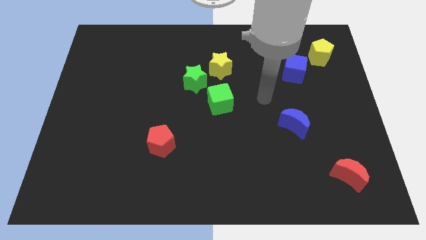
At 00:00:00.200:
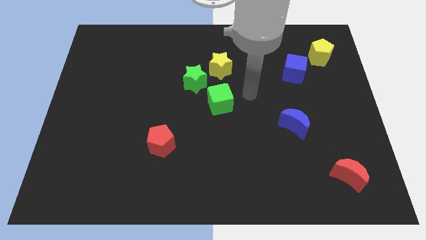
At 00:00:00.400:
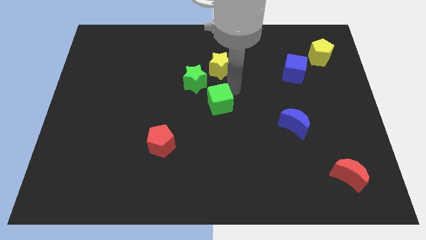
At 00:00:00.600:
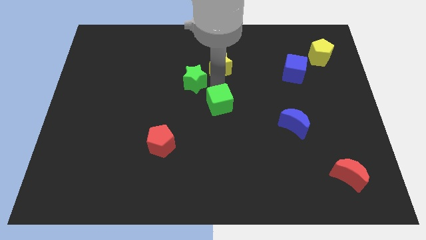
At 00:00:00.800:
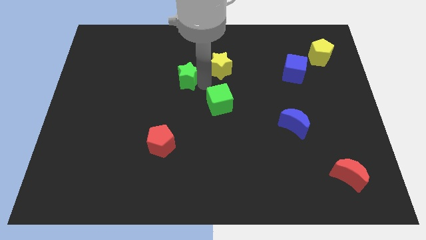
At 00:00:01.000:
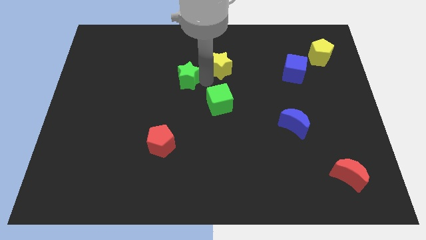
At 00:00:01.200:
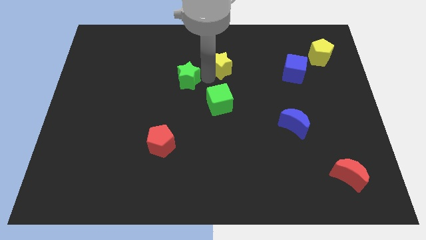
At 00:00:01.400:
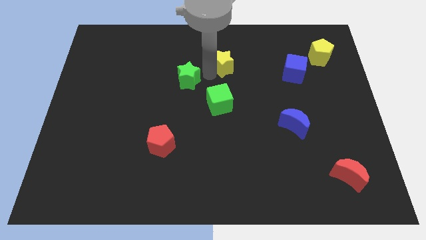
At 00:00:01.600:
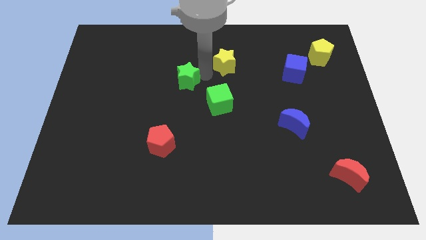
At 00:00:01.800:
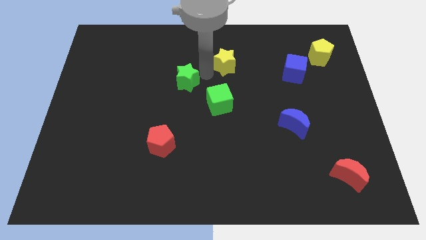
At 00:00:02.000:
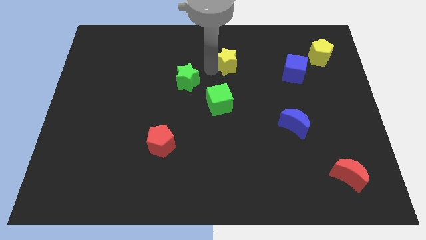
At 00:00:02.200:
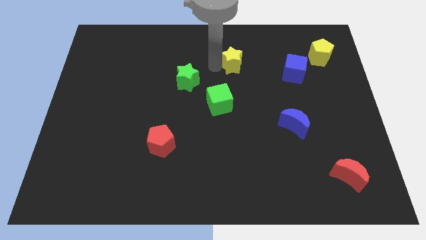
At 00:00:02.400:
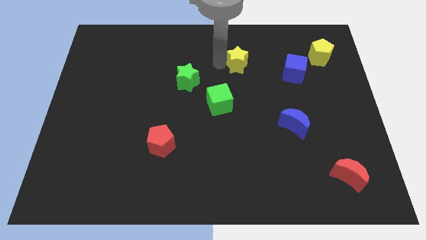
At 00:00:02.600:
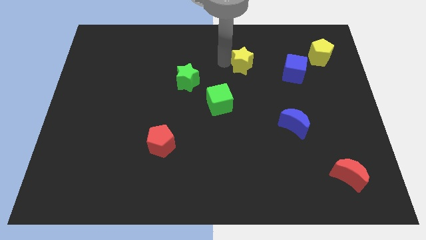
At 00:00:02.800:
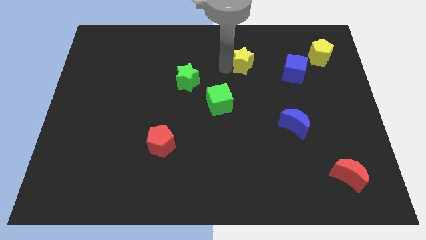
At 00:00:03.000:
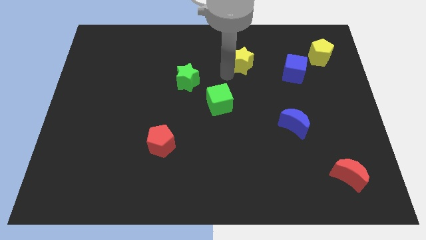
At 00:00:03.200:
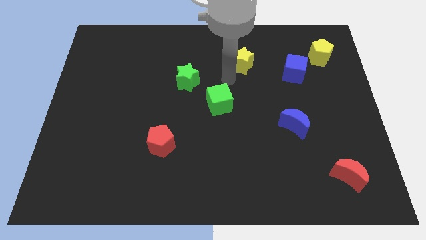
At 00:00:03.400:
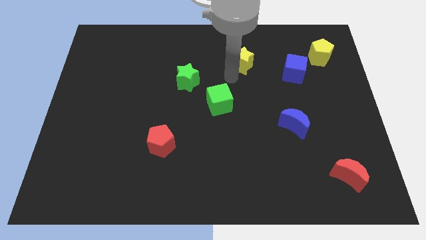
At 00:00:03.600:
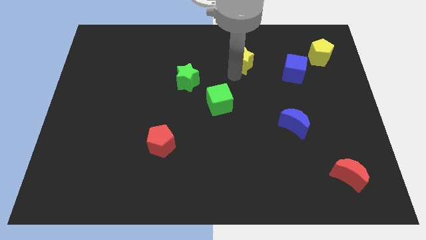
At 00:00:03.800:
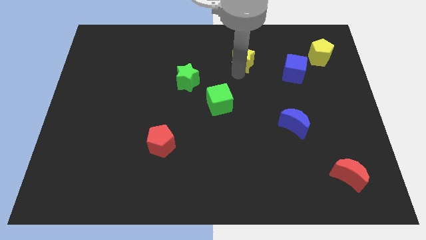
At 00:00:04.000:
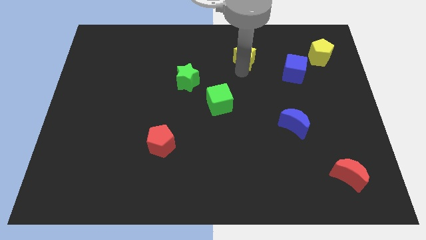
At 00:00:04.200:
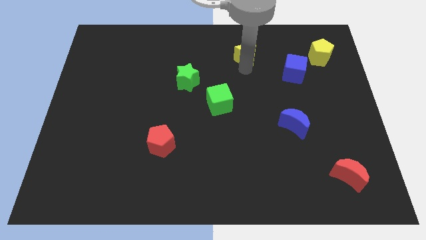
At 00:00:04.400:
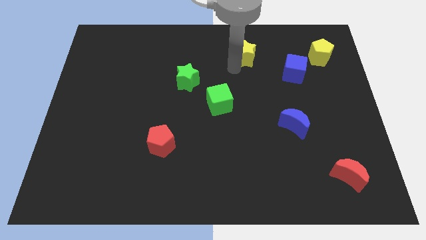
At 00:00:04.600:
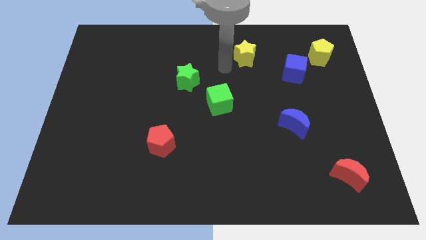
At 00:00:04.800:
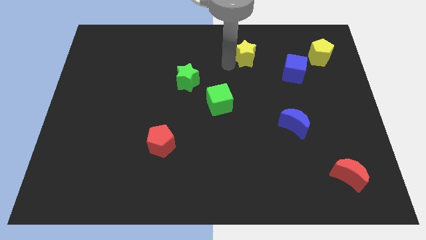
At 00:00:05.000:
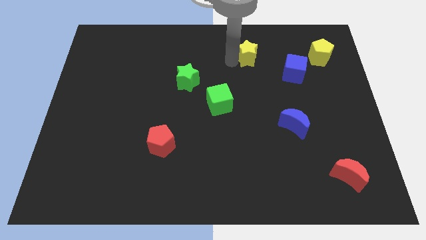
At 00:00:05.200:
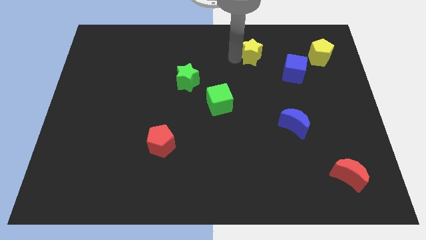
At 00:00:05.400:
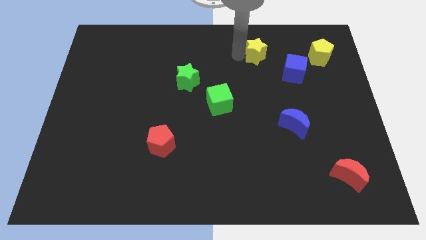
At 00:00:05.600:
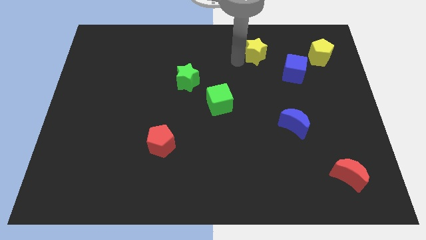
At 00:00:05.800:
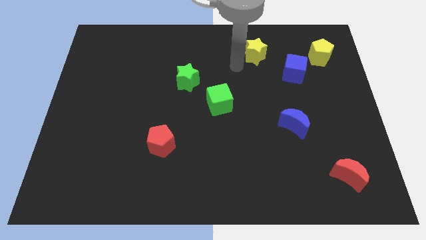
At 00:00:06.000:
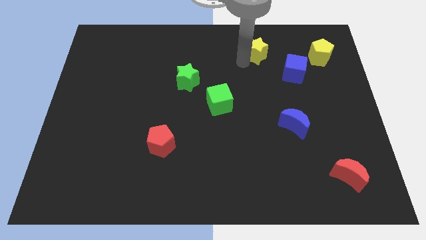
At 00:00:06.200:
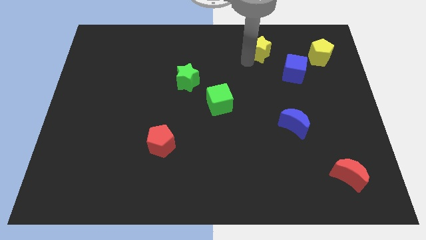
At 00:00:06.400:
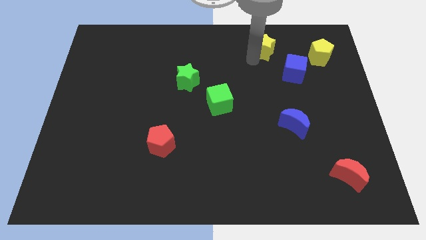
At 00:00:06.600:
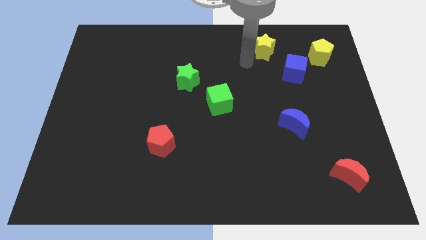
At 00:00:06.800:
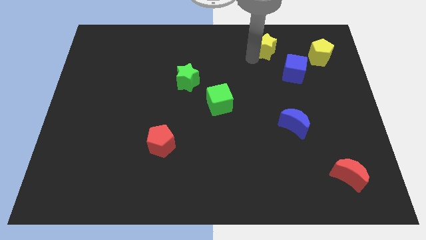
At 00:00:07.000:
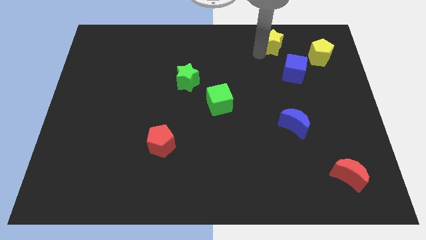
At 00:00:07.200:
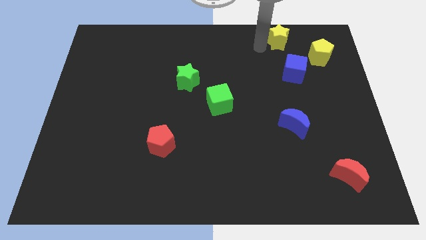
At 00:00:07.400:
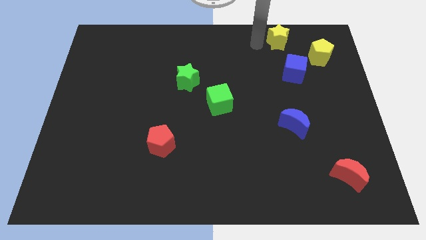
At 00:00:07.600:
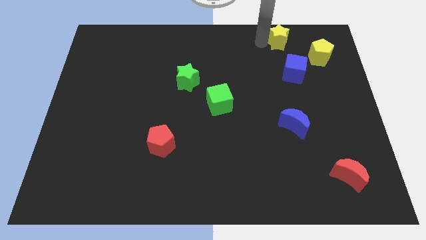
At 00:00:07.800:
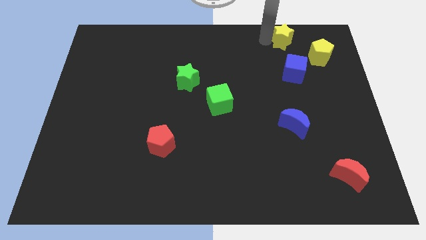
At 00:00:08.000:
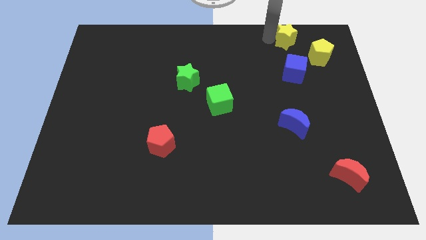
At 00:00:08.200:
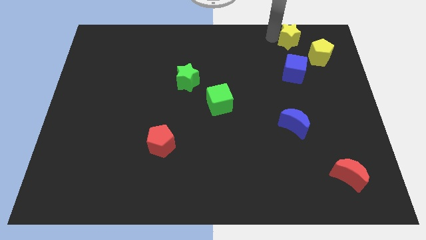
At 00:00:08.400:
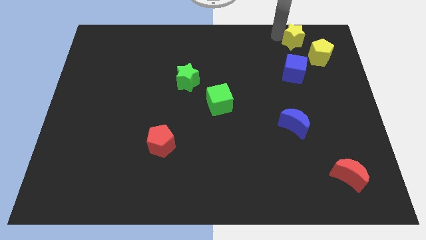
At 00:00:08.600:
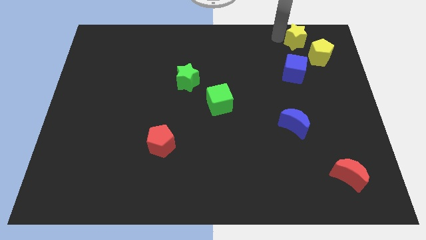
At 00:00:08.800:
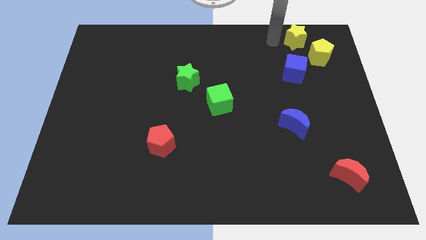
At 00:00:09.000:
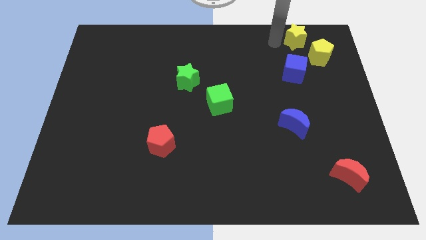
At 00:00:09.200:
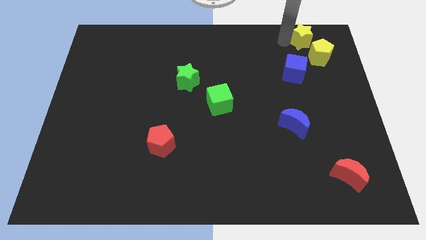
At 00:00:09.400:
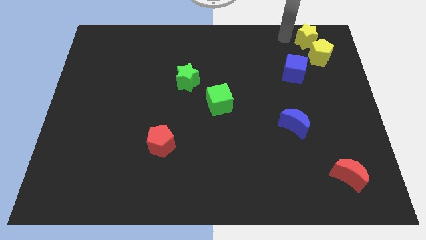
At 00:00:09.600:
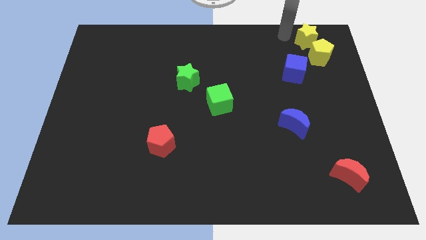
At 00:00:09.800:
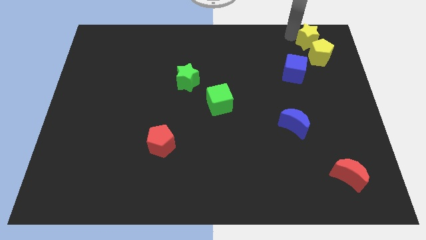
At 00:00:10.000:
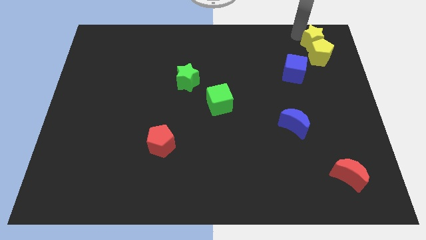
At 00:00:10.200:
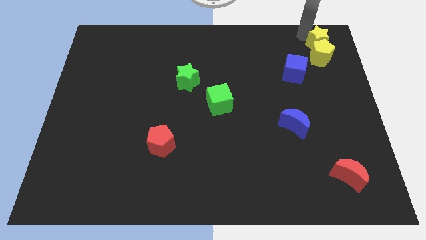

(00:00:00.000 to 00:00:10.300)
move the yellow star to the upper right corner
